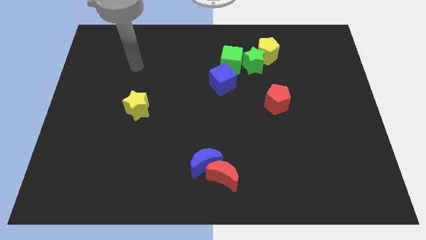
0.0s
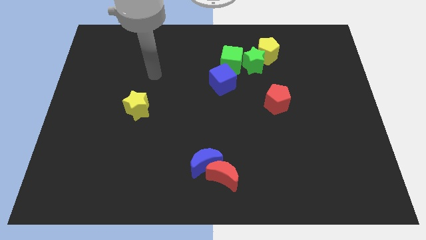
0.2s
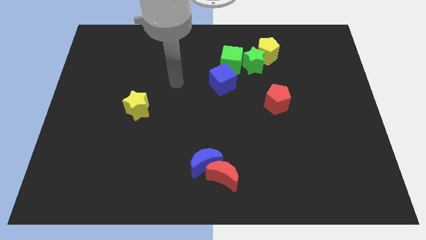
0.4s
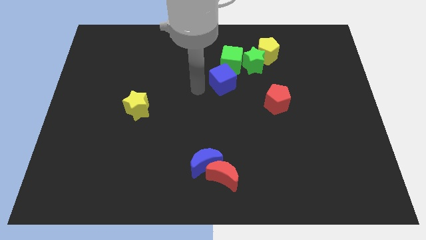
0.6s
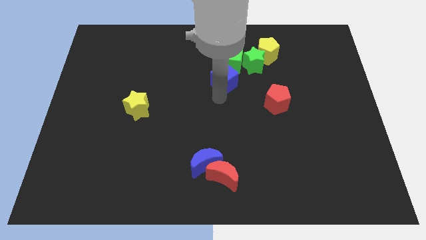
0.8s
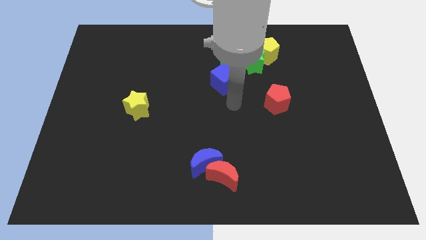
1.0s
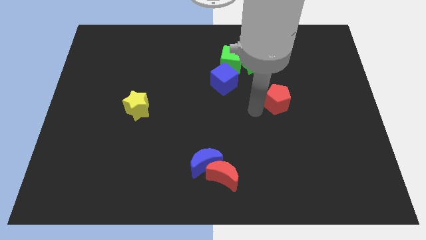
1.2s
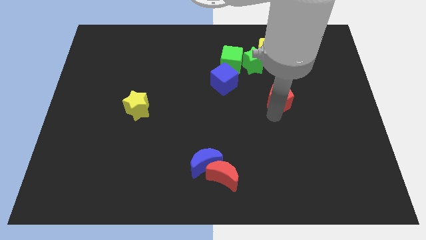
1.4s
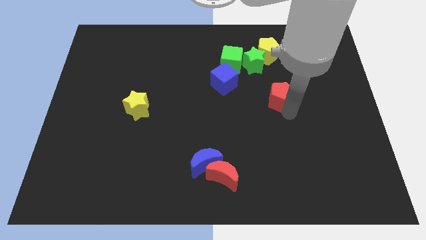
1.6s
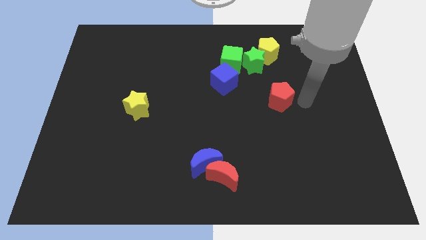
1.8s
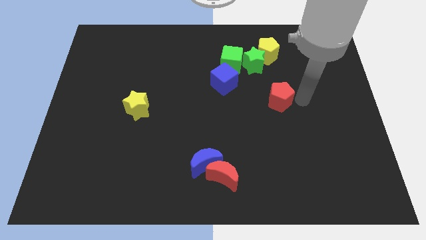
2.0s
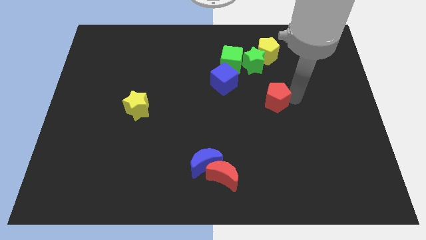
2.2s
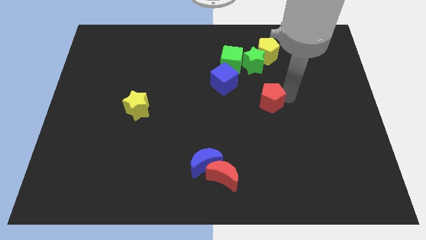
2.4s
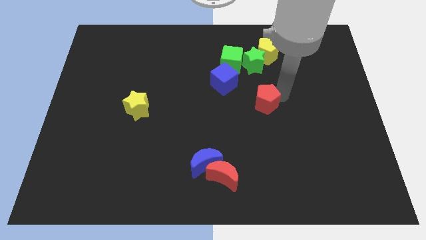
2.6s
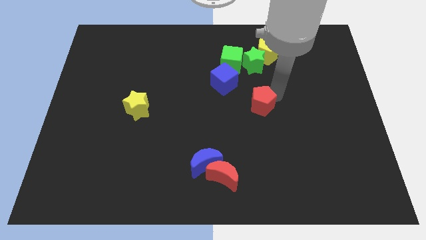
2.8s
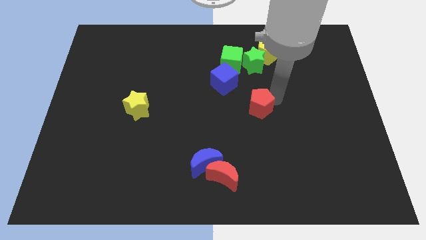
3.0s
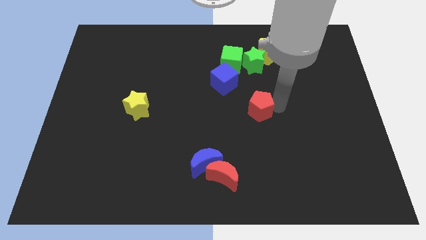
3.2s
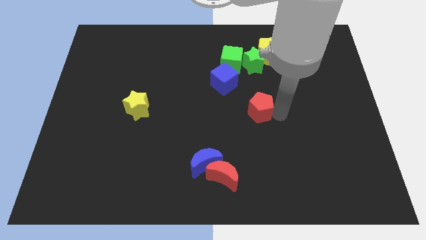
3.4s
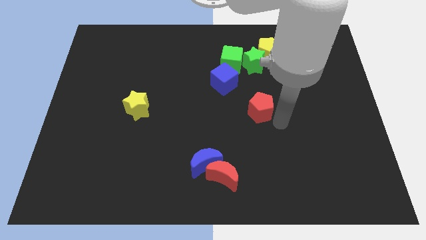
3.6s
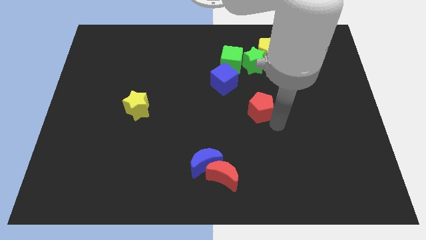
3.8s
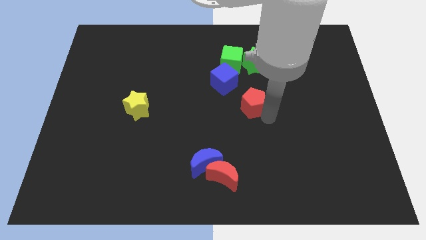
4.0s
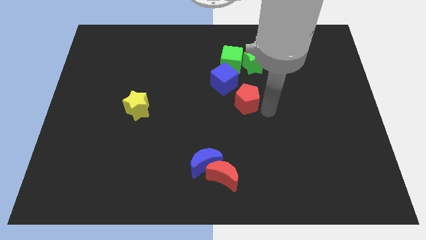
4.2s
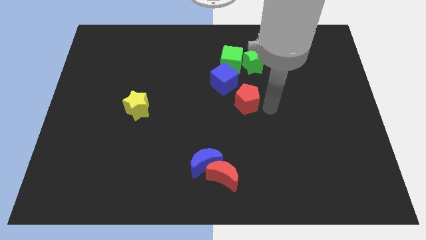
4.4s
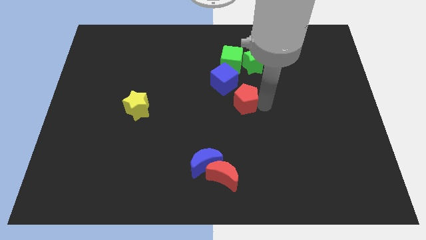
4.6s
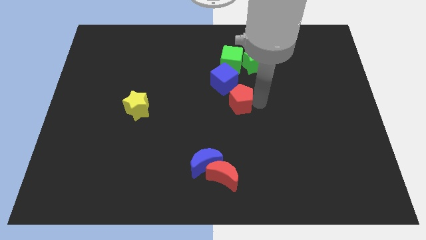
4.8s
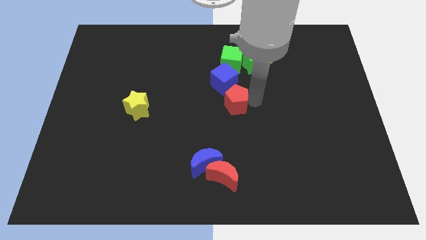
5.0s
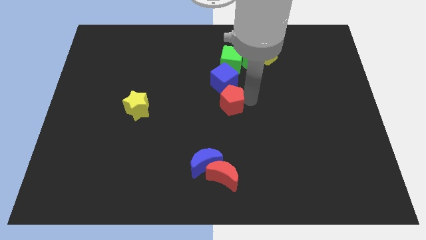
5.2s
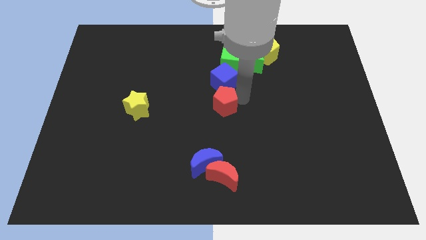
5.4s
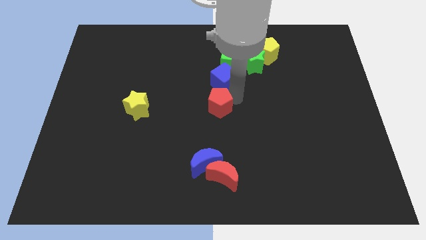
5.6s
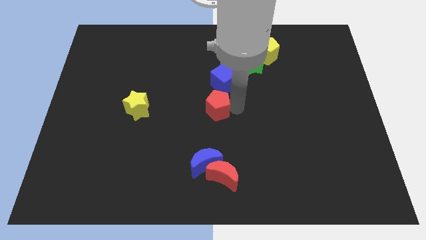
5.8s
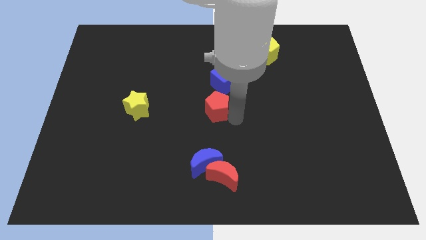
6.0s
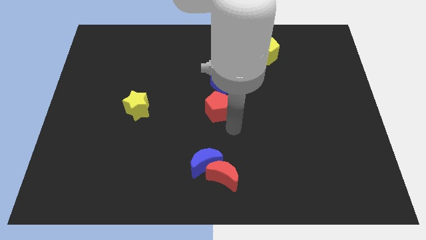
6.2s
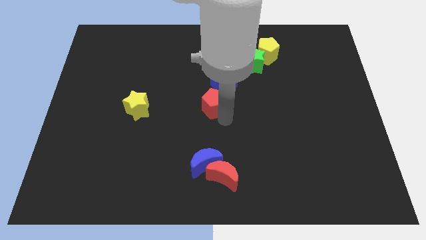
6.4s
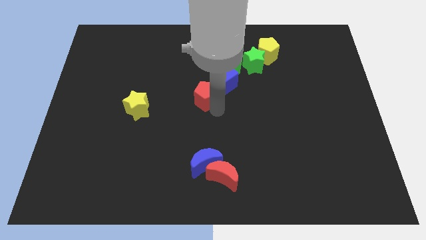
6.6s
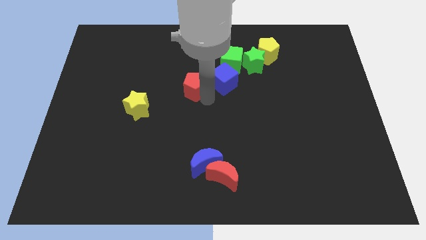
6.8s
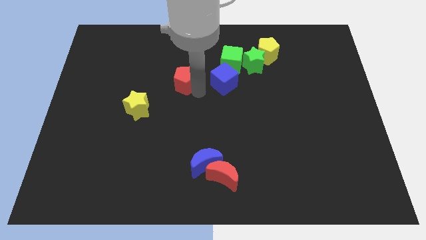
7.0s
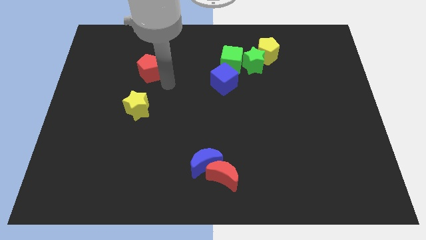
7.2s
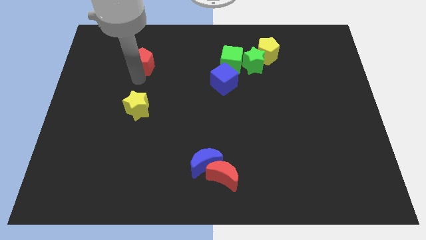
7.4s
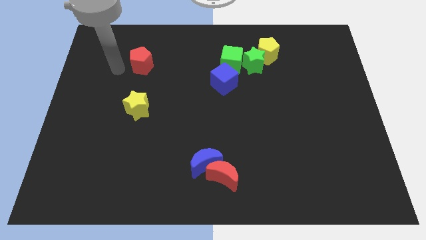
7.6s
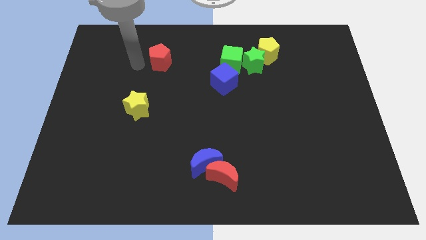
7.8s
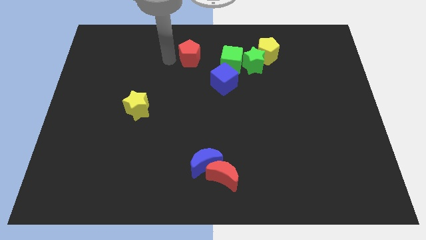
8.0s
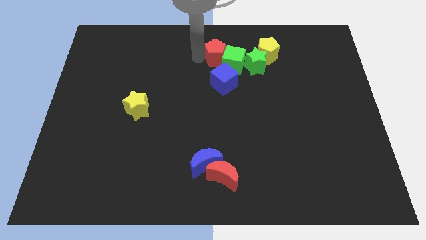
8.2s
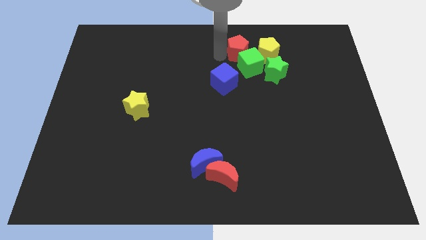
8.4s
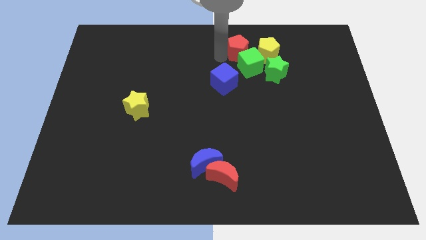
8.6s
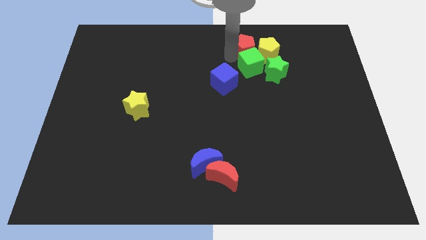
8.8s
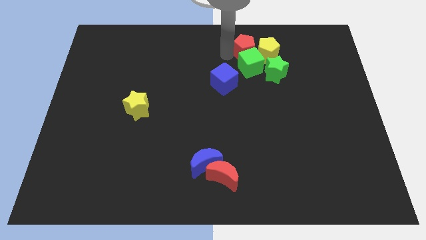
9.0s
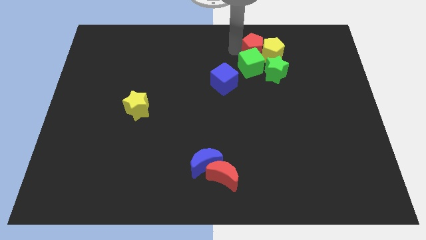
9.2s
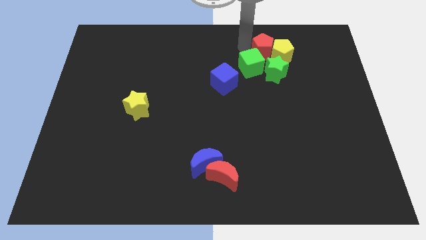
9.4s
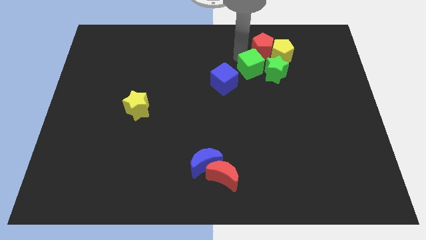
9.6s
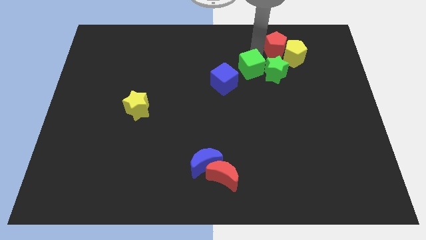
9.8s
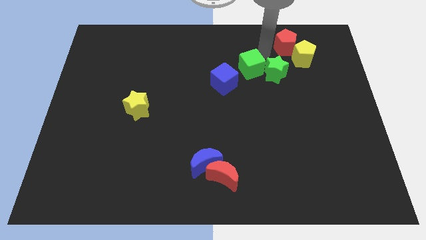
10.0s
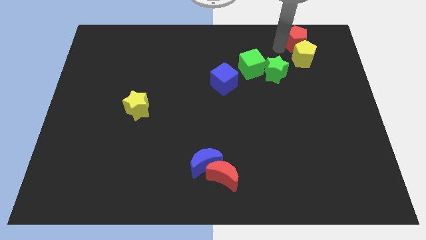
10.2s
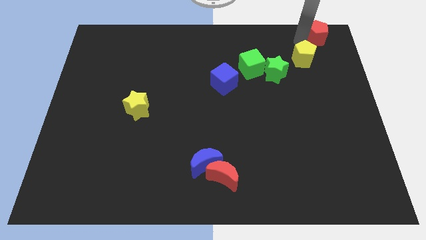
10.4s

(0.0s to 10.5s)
push the red pentagon to the top right
